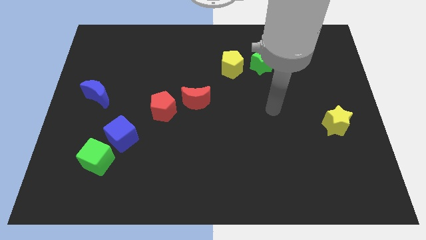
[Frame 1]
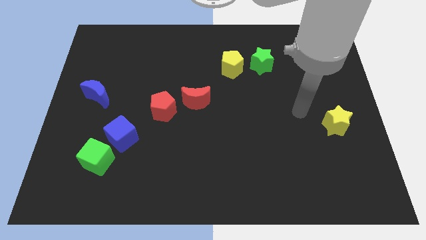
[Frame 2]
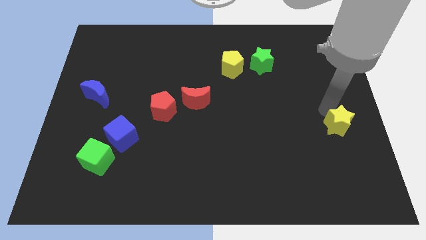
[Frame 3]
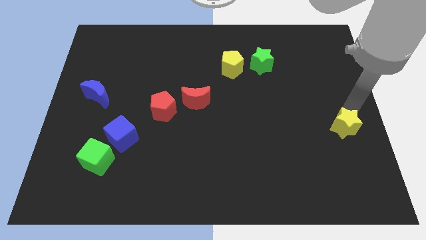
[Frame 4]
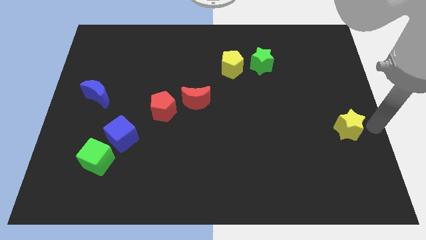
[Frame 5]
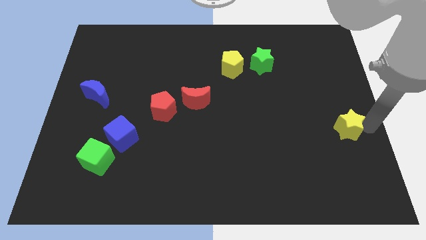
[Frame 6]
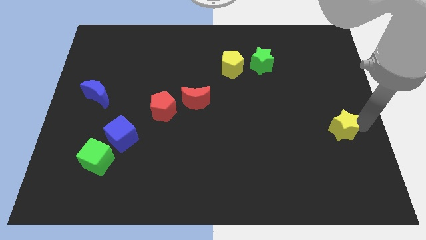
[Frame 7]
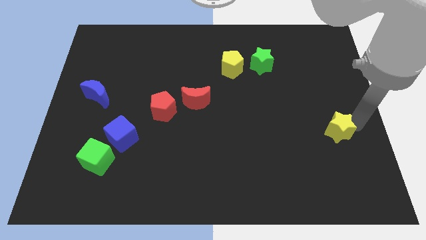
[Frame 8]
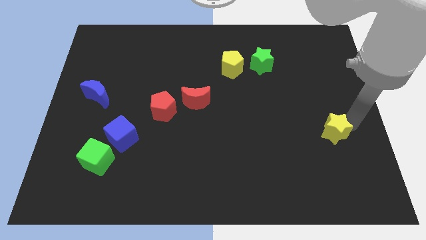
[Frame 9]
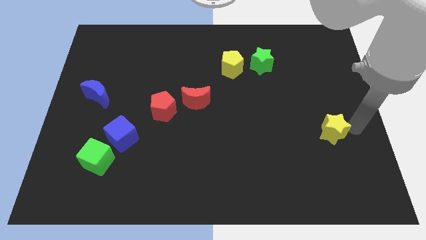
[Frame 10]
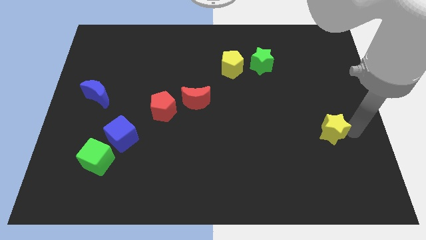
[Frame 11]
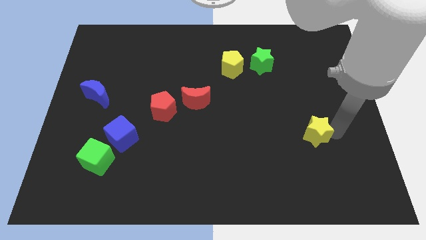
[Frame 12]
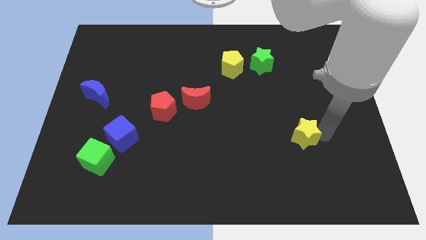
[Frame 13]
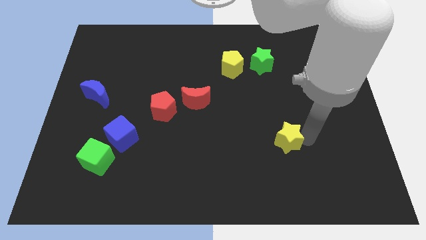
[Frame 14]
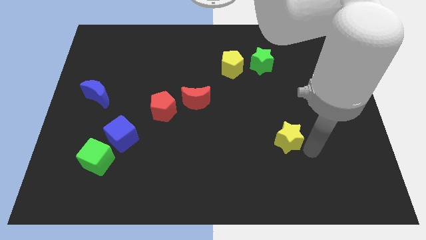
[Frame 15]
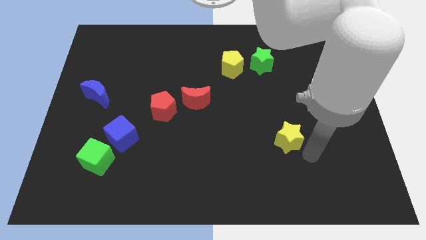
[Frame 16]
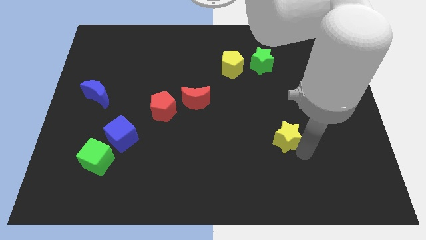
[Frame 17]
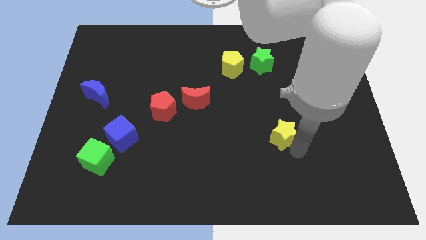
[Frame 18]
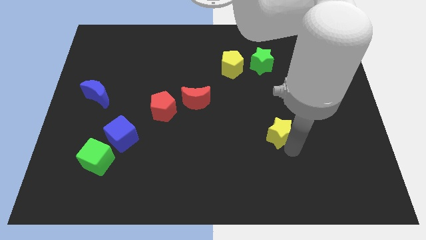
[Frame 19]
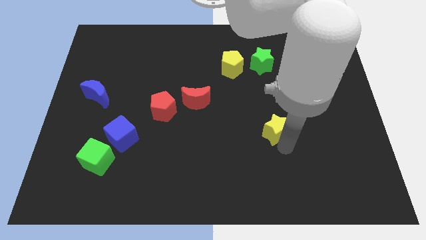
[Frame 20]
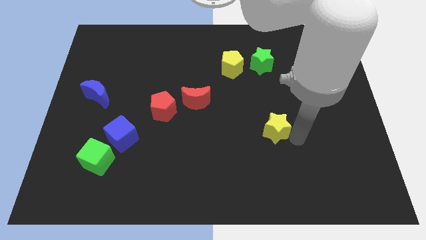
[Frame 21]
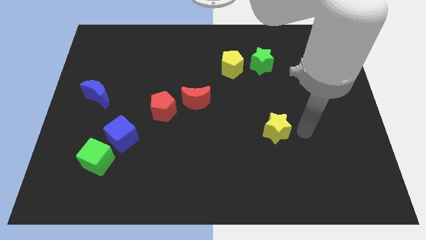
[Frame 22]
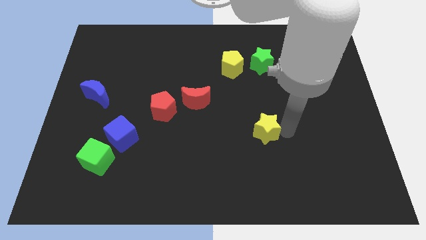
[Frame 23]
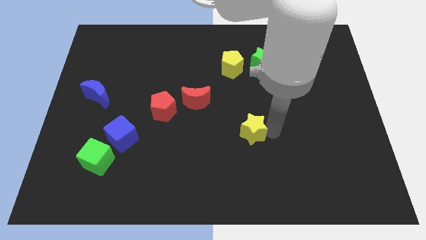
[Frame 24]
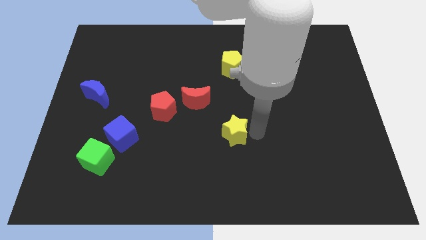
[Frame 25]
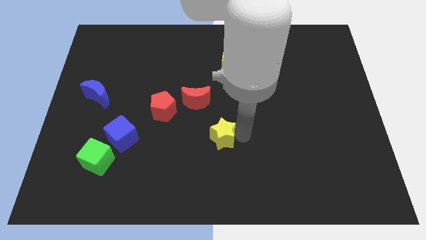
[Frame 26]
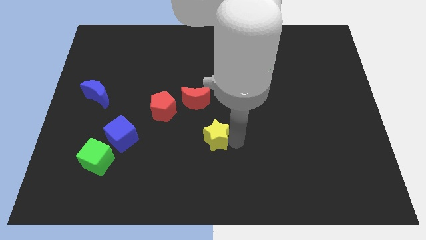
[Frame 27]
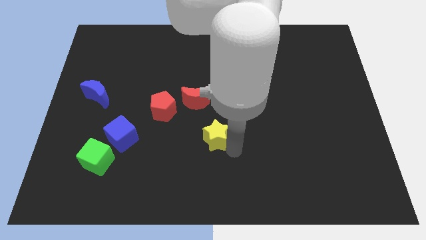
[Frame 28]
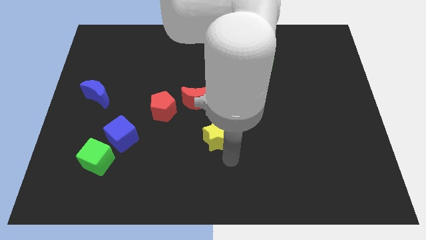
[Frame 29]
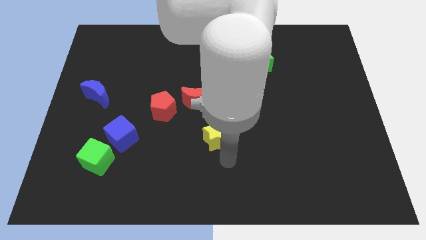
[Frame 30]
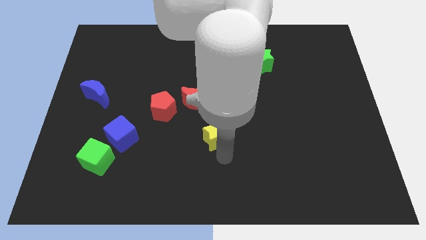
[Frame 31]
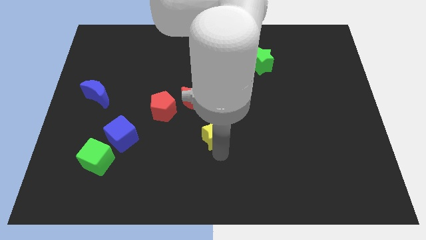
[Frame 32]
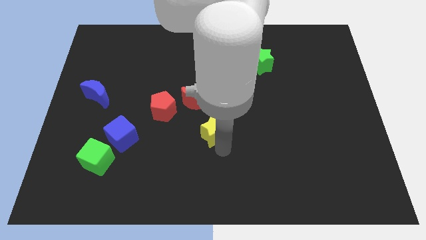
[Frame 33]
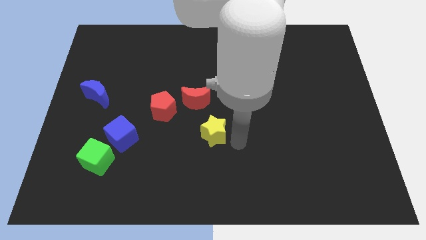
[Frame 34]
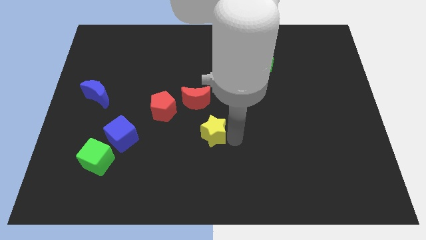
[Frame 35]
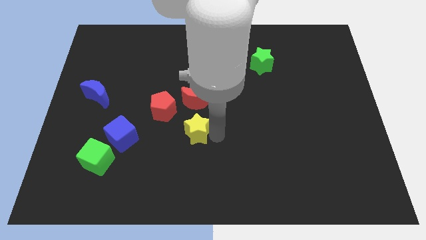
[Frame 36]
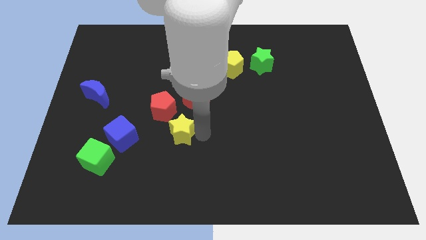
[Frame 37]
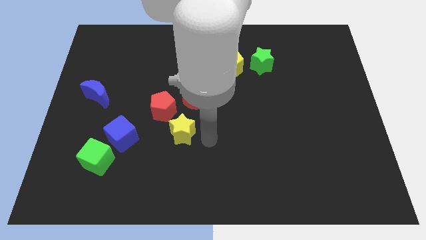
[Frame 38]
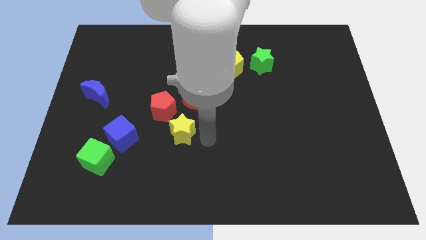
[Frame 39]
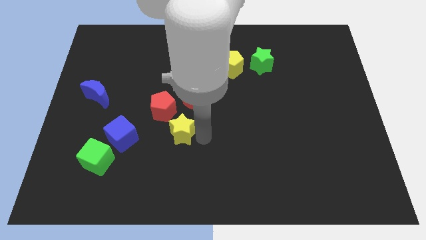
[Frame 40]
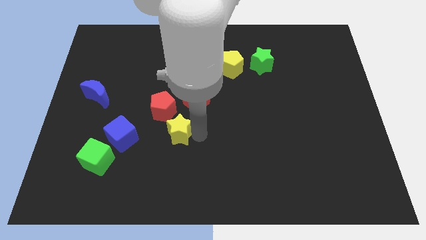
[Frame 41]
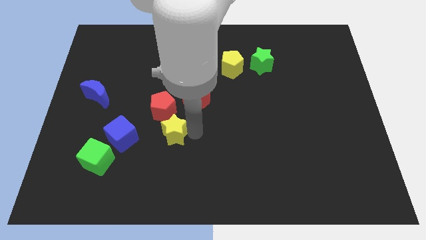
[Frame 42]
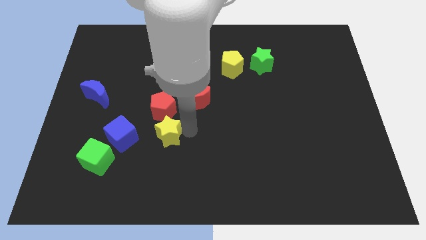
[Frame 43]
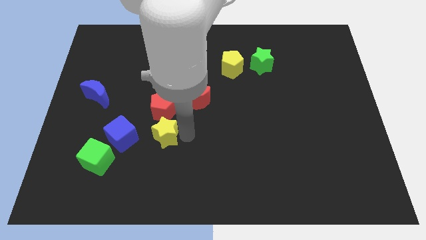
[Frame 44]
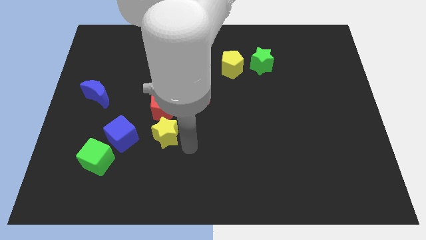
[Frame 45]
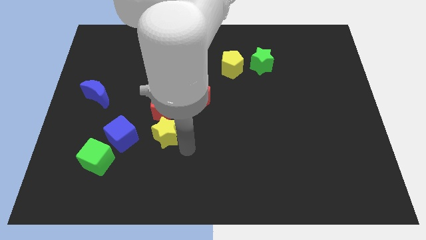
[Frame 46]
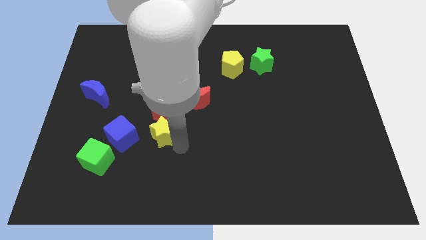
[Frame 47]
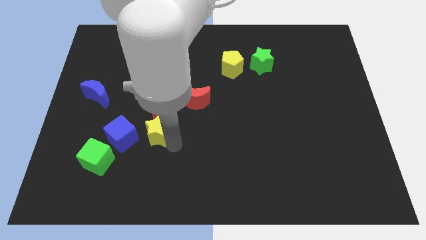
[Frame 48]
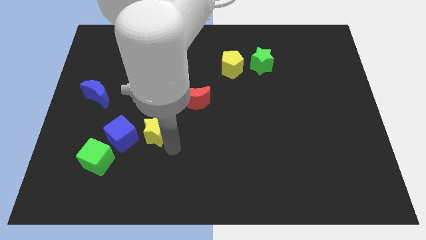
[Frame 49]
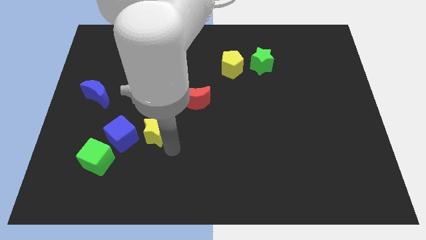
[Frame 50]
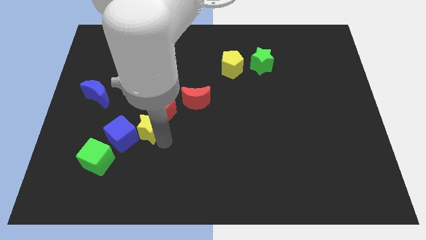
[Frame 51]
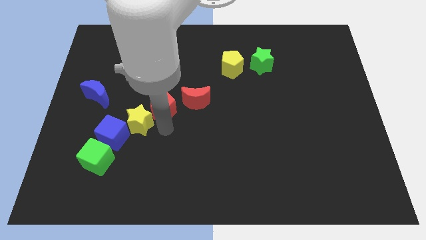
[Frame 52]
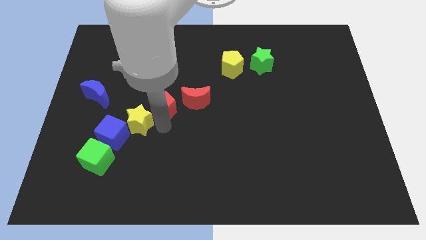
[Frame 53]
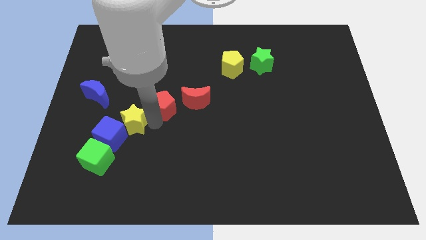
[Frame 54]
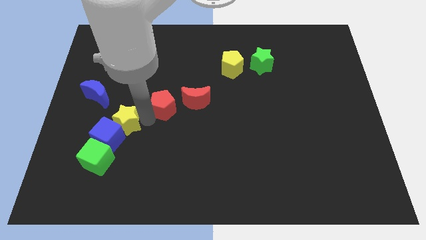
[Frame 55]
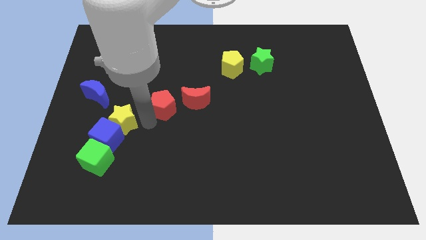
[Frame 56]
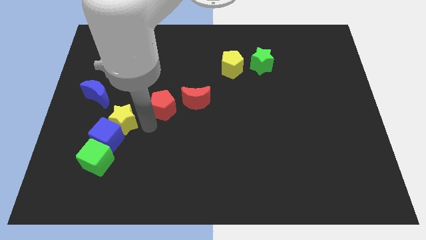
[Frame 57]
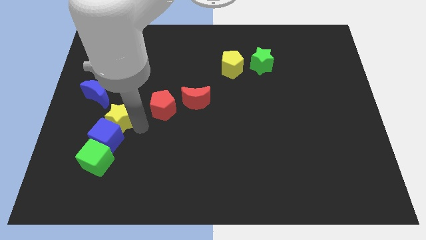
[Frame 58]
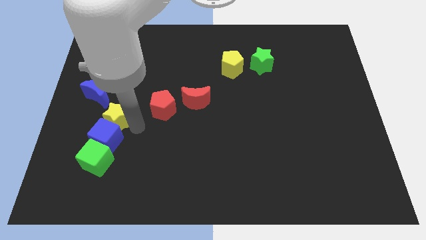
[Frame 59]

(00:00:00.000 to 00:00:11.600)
slide the yellow star to the top left of the blue cube

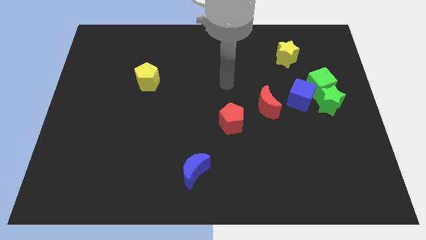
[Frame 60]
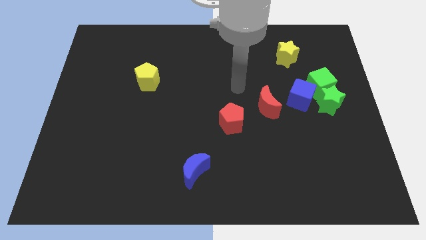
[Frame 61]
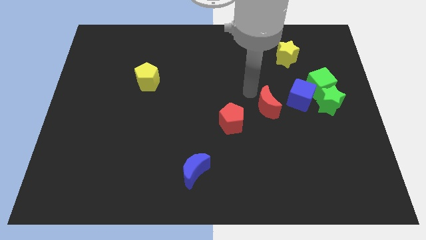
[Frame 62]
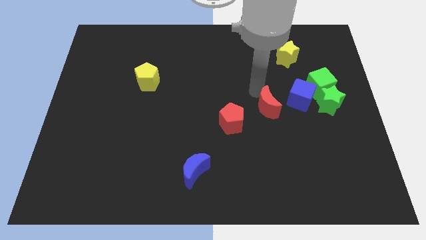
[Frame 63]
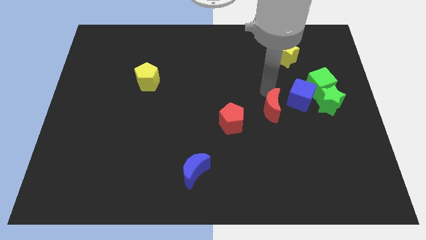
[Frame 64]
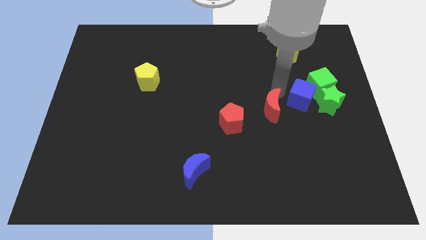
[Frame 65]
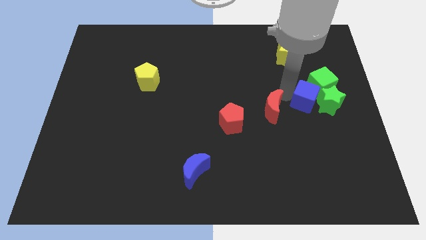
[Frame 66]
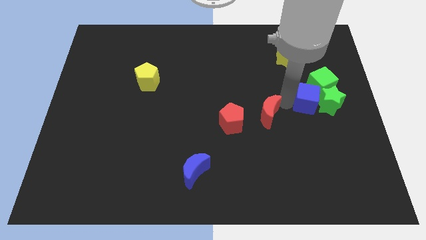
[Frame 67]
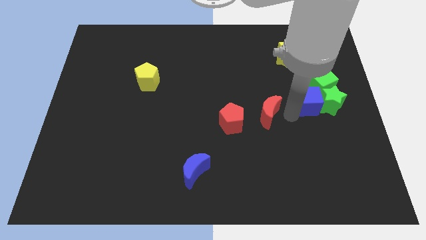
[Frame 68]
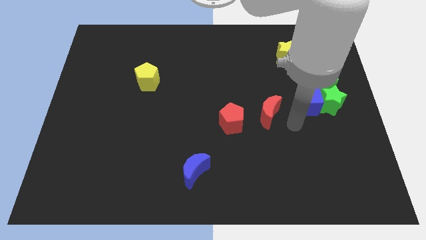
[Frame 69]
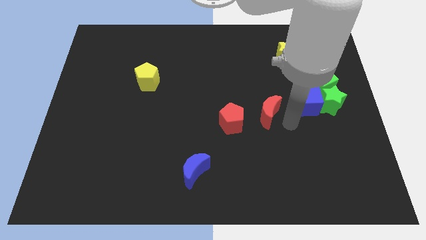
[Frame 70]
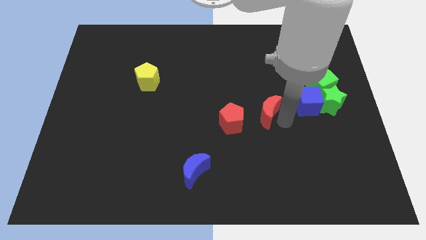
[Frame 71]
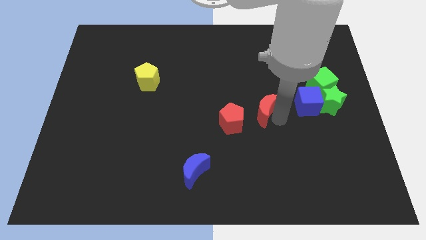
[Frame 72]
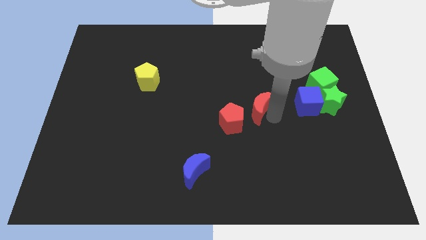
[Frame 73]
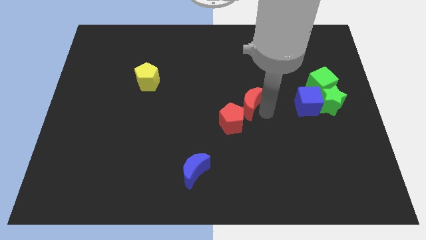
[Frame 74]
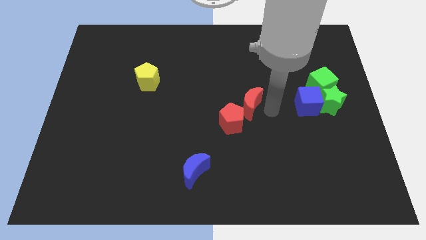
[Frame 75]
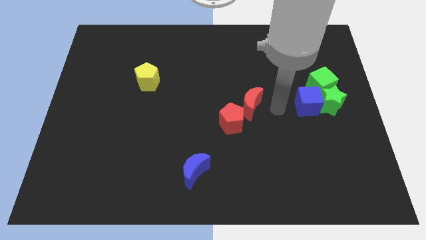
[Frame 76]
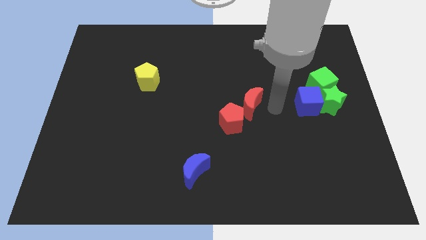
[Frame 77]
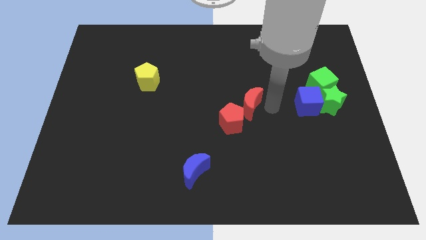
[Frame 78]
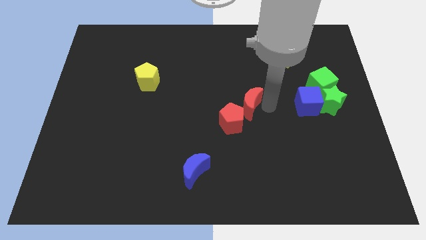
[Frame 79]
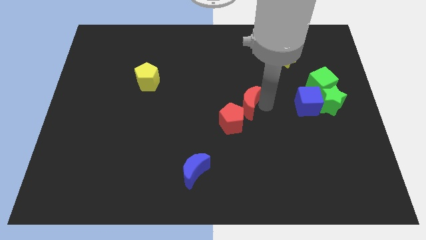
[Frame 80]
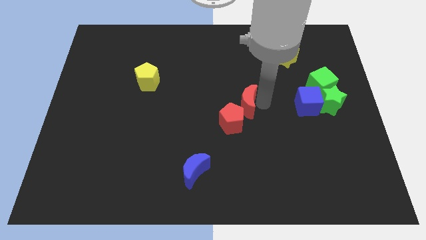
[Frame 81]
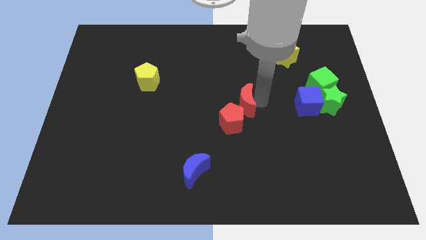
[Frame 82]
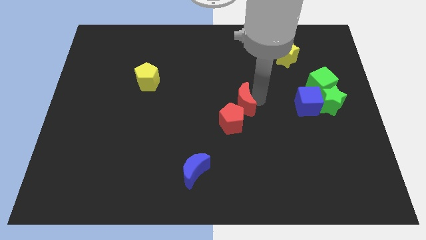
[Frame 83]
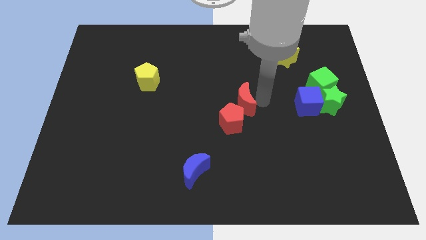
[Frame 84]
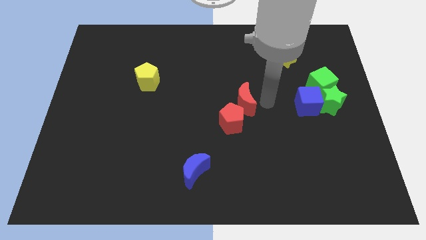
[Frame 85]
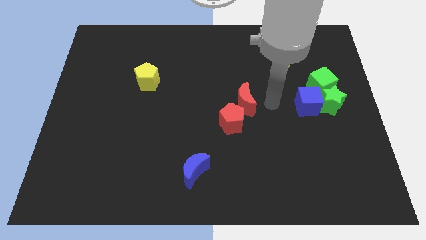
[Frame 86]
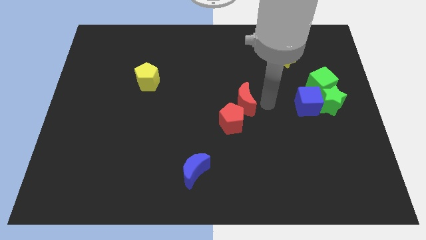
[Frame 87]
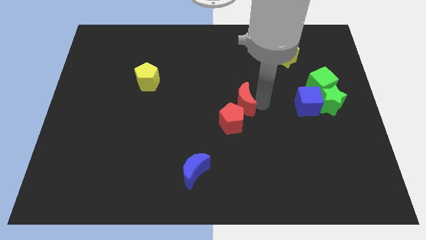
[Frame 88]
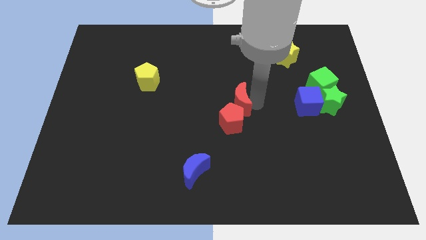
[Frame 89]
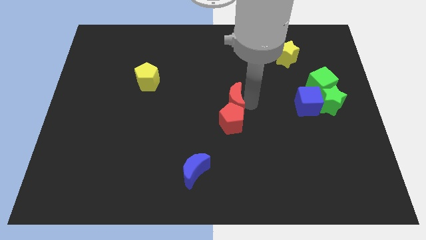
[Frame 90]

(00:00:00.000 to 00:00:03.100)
push the red moon to the top left of the red pentagon
